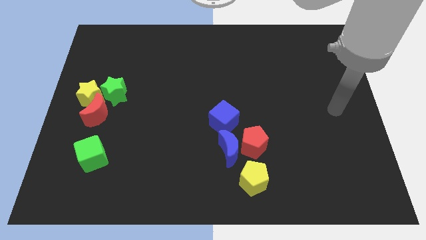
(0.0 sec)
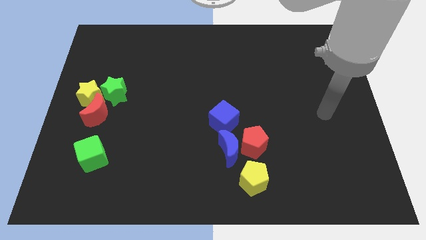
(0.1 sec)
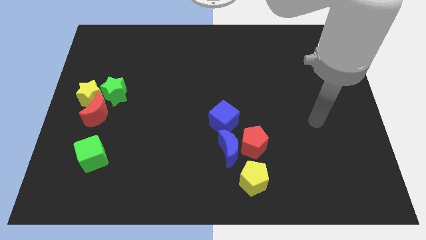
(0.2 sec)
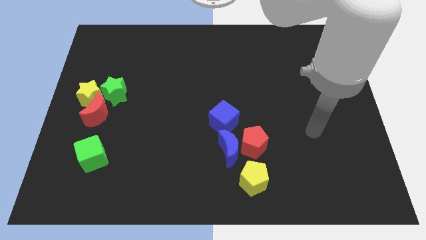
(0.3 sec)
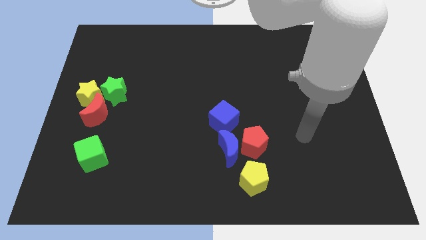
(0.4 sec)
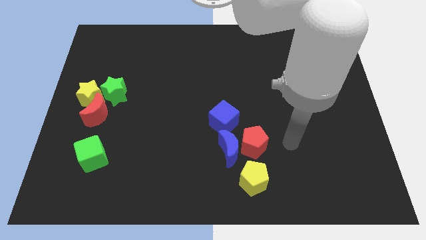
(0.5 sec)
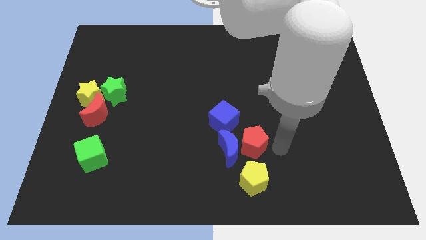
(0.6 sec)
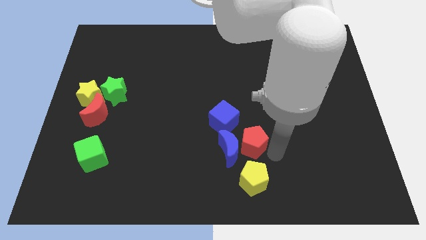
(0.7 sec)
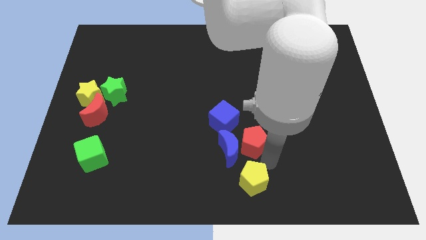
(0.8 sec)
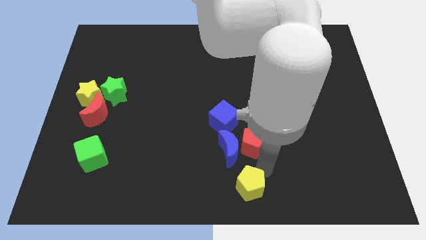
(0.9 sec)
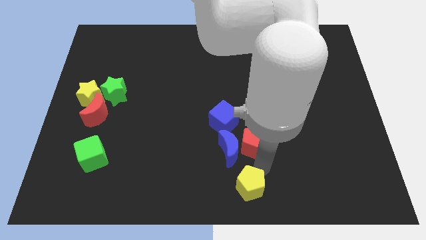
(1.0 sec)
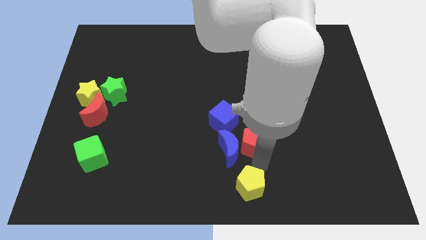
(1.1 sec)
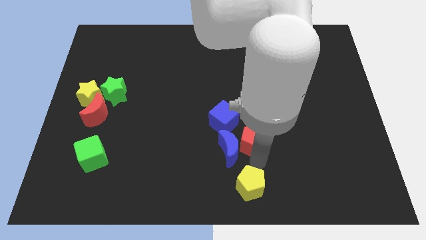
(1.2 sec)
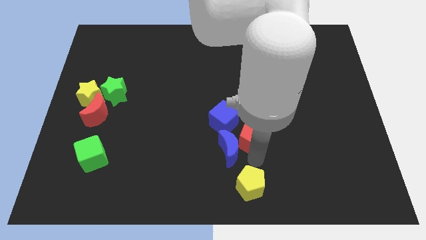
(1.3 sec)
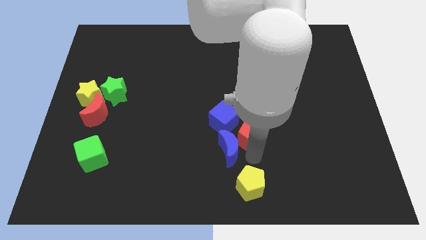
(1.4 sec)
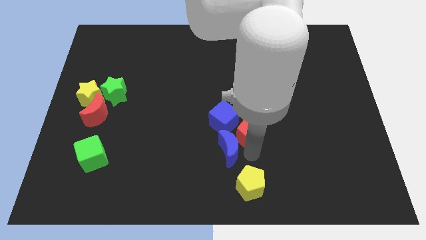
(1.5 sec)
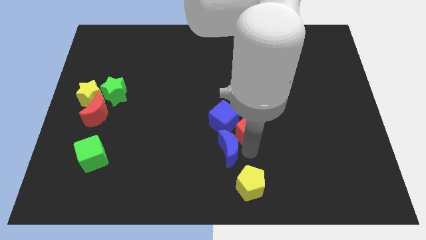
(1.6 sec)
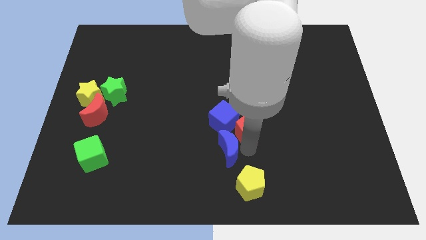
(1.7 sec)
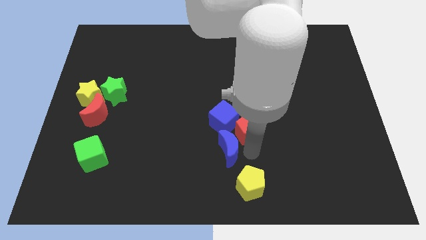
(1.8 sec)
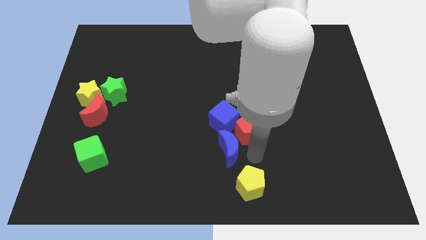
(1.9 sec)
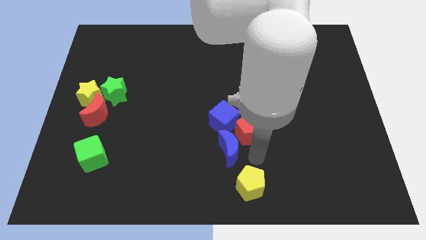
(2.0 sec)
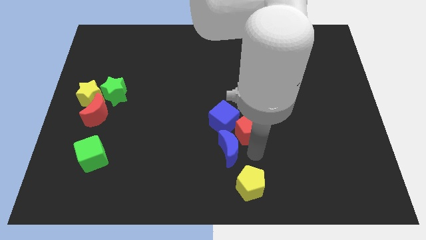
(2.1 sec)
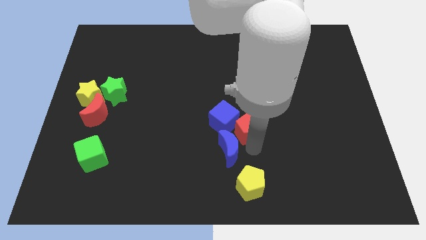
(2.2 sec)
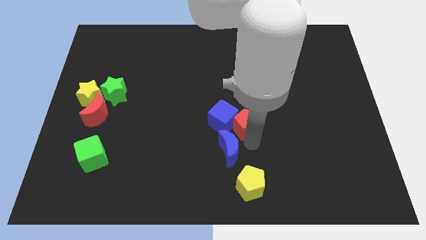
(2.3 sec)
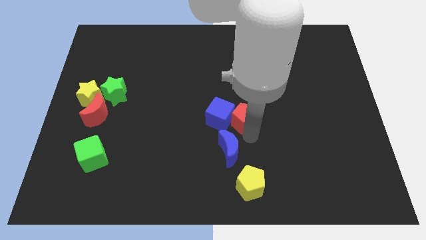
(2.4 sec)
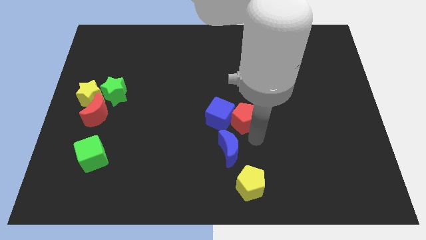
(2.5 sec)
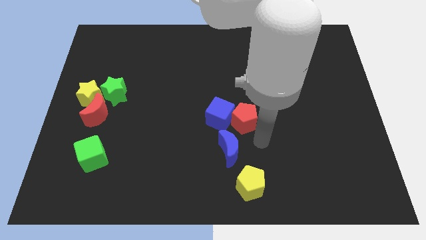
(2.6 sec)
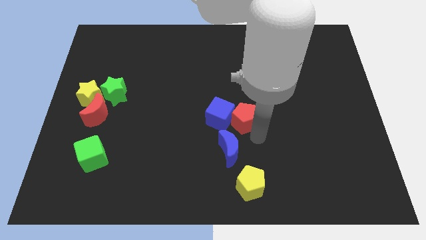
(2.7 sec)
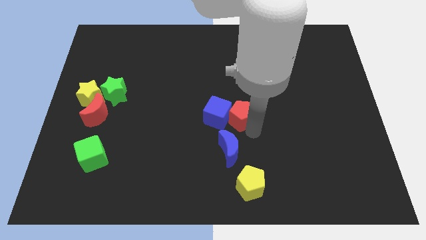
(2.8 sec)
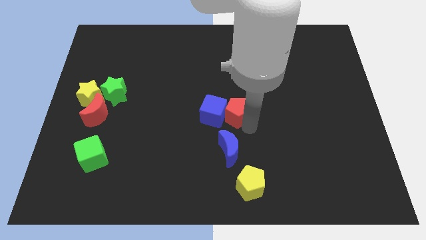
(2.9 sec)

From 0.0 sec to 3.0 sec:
push the red pentagon upwards and to the left slightly

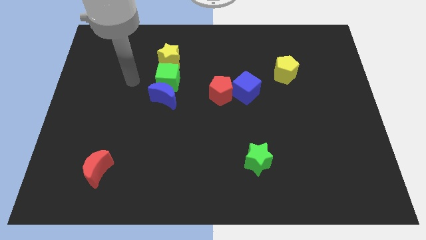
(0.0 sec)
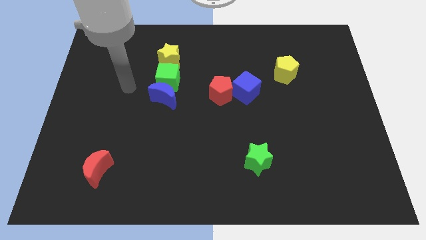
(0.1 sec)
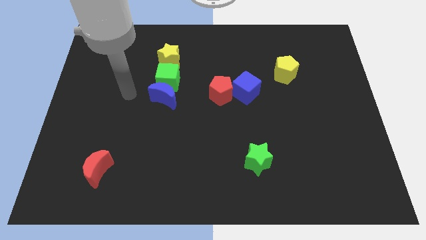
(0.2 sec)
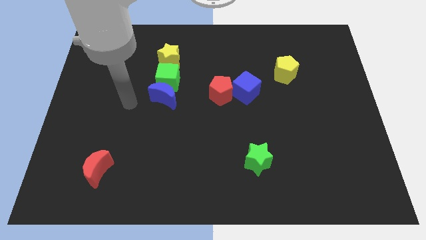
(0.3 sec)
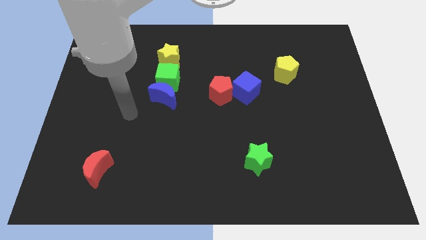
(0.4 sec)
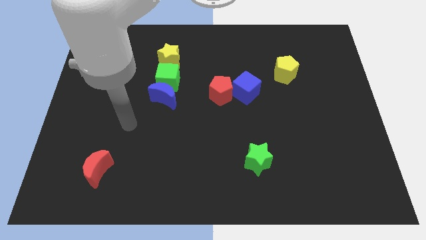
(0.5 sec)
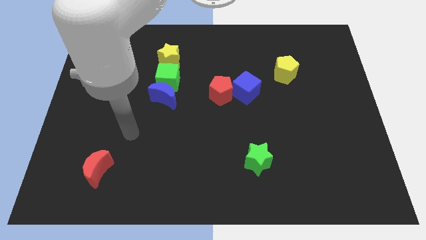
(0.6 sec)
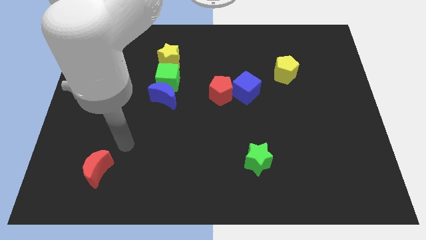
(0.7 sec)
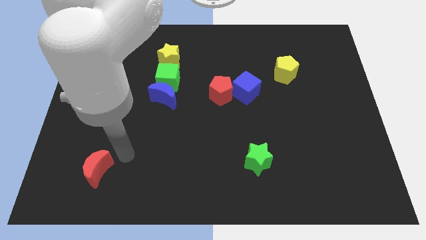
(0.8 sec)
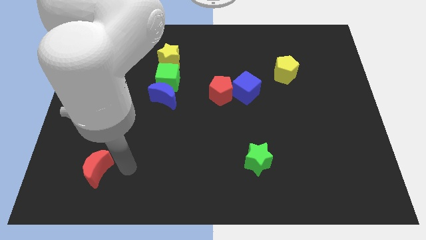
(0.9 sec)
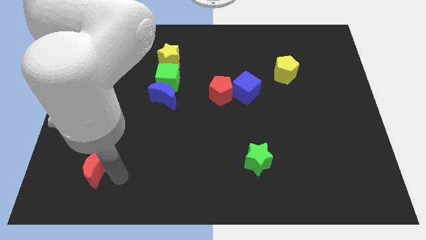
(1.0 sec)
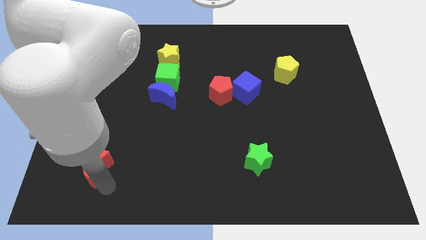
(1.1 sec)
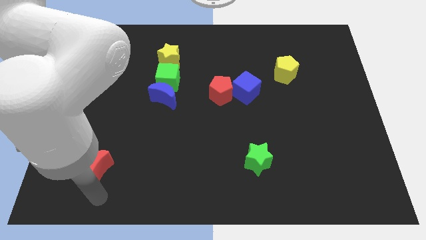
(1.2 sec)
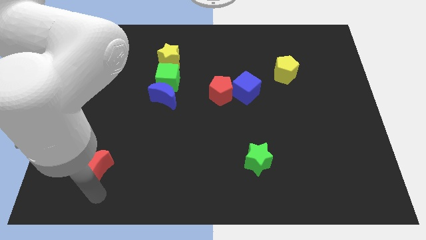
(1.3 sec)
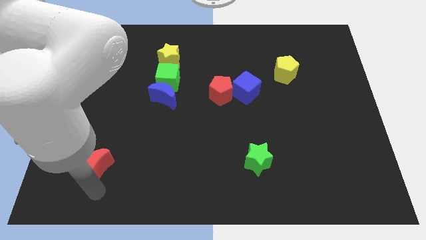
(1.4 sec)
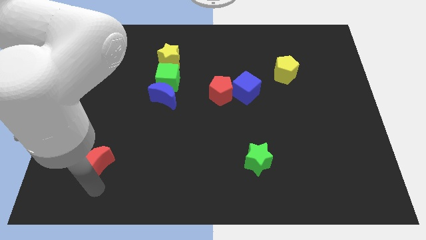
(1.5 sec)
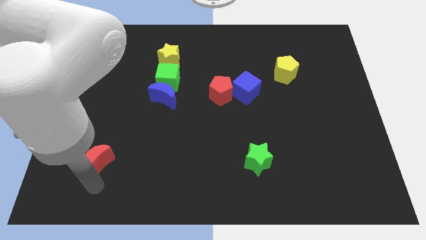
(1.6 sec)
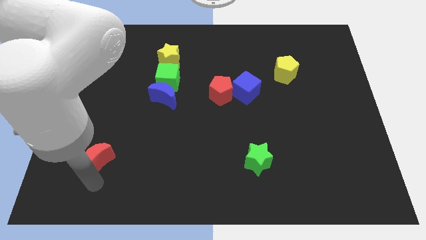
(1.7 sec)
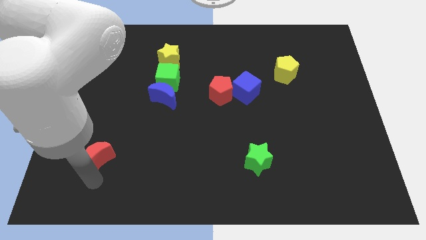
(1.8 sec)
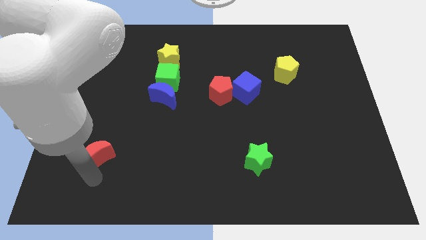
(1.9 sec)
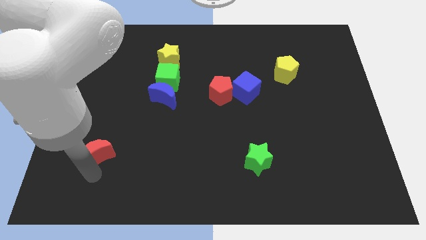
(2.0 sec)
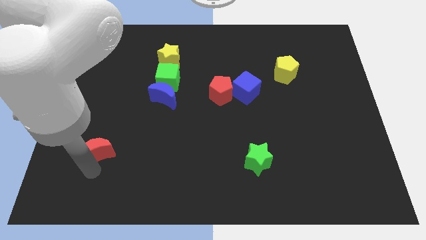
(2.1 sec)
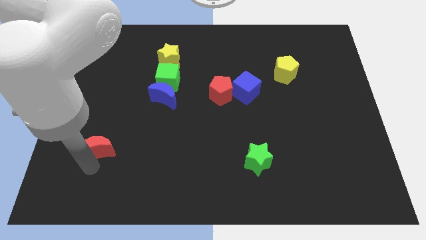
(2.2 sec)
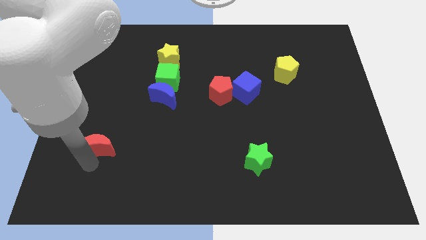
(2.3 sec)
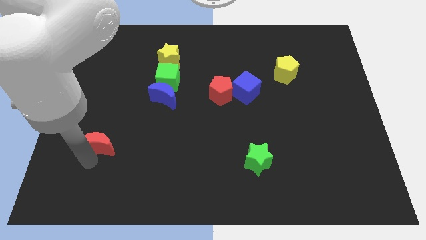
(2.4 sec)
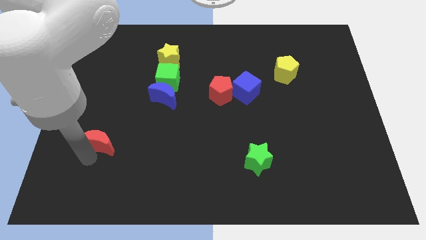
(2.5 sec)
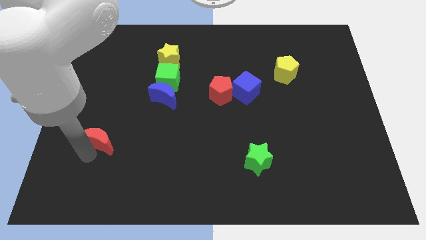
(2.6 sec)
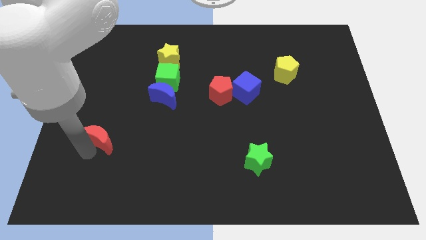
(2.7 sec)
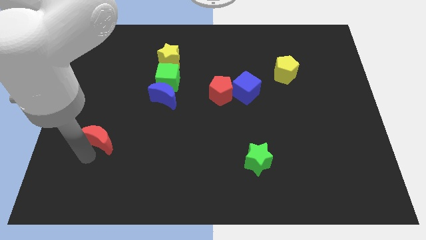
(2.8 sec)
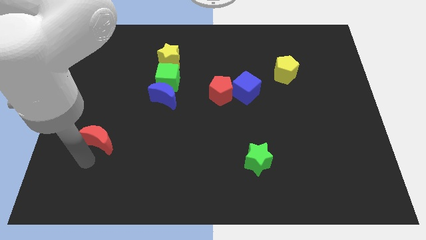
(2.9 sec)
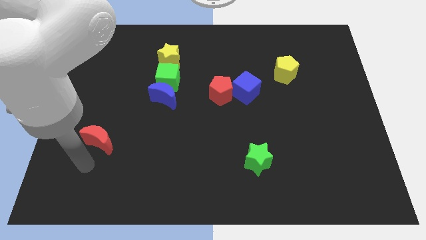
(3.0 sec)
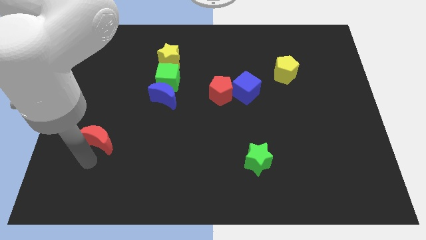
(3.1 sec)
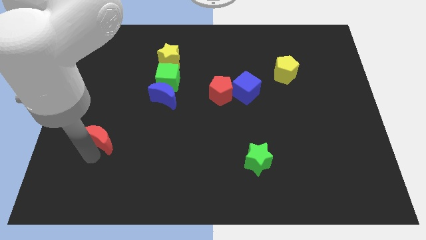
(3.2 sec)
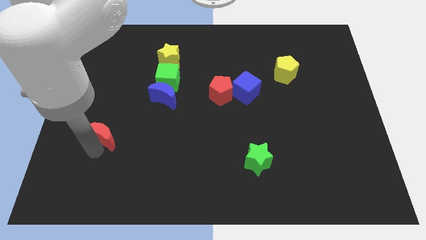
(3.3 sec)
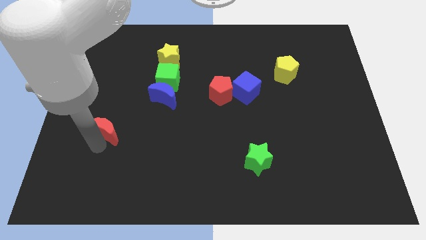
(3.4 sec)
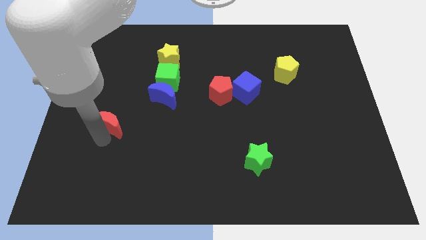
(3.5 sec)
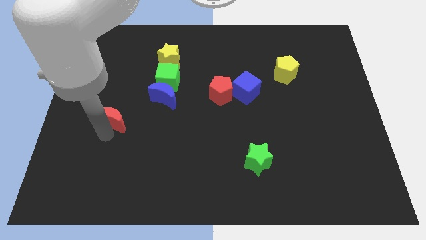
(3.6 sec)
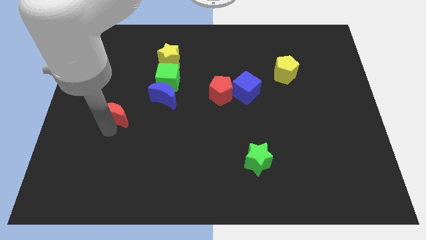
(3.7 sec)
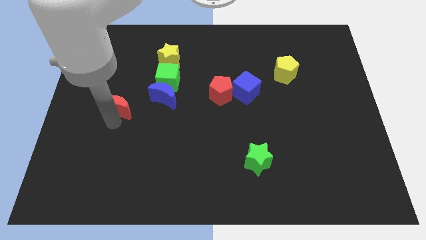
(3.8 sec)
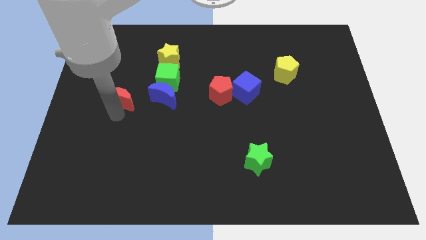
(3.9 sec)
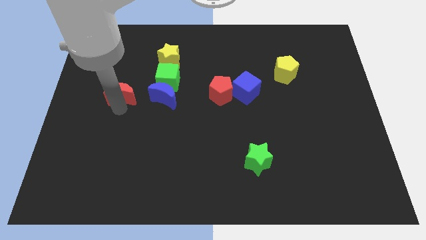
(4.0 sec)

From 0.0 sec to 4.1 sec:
push the red moon up

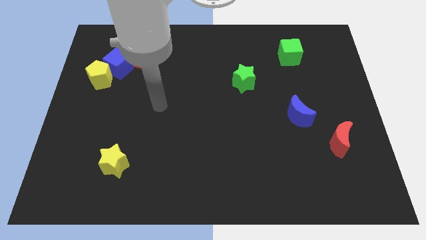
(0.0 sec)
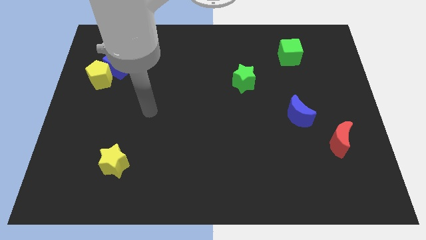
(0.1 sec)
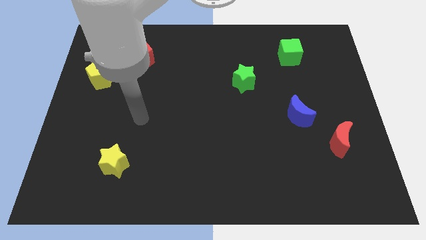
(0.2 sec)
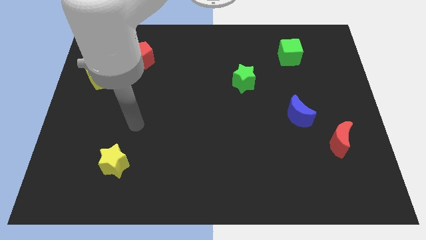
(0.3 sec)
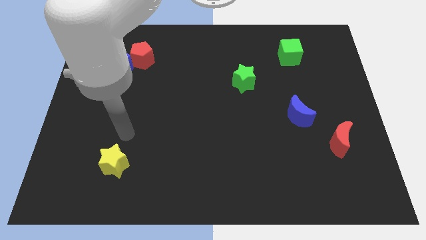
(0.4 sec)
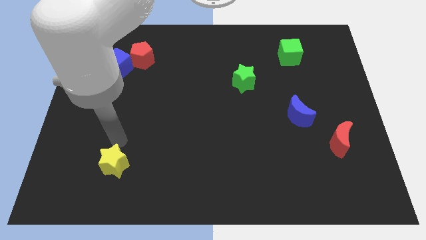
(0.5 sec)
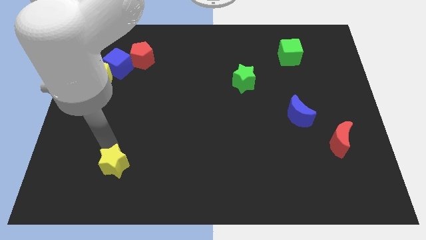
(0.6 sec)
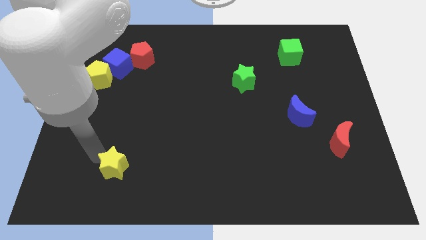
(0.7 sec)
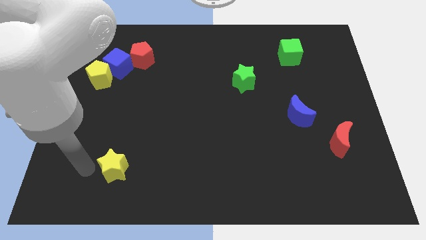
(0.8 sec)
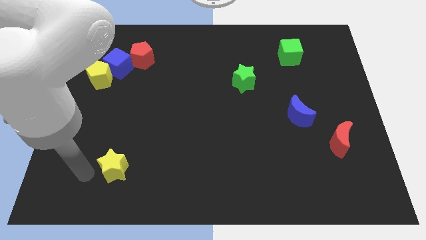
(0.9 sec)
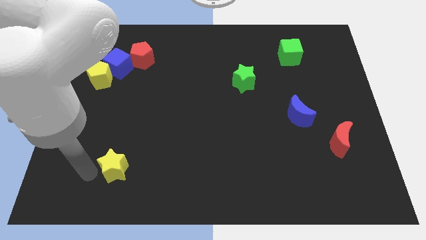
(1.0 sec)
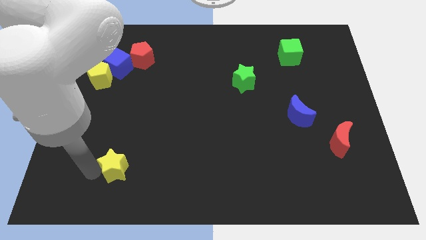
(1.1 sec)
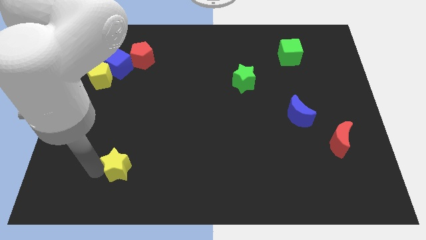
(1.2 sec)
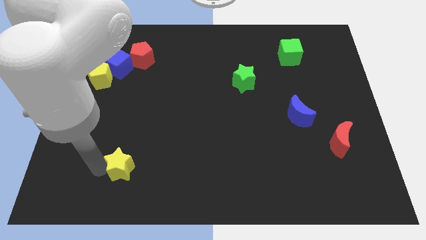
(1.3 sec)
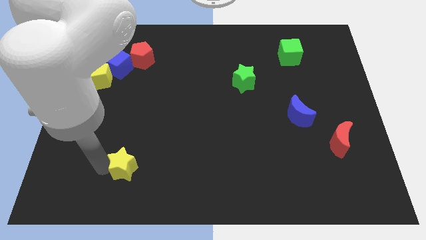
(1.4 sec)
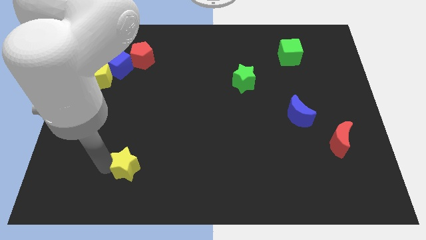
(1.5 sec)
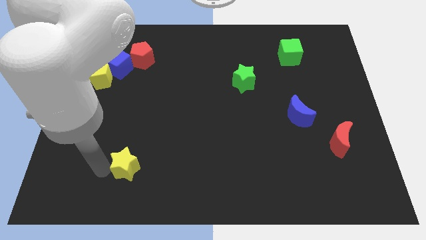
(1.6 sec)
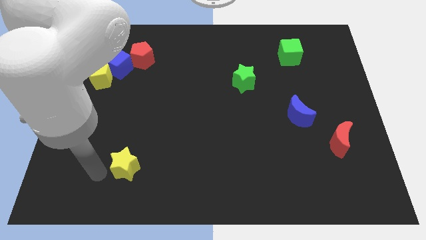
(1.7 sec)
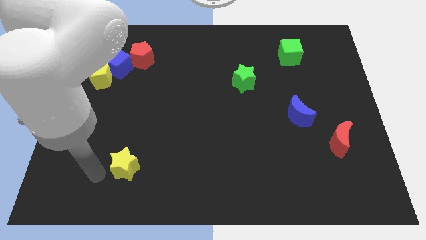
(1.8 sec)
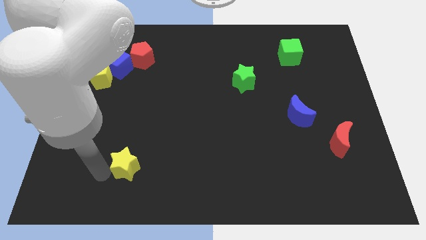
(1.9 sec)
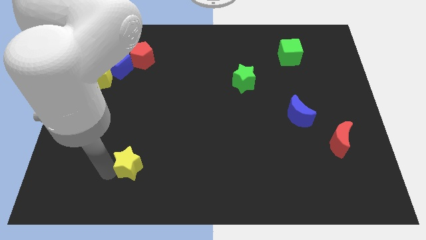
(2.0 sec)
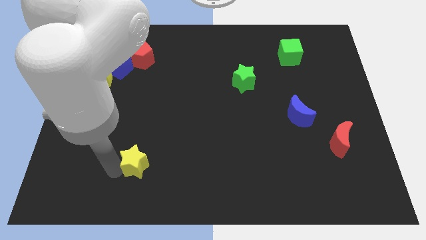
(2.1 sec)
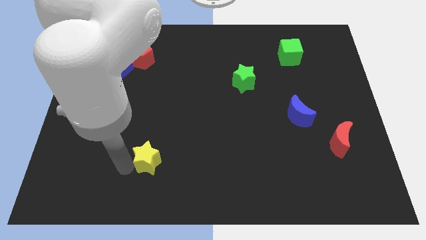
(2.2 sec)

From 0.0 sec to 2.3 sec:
slightly move the yellow star right
